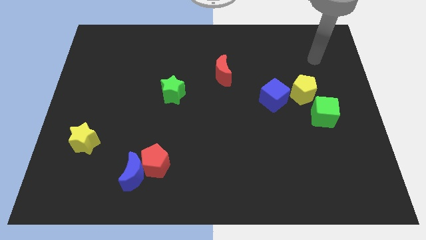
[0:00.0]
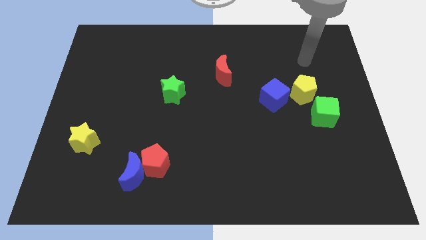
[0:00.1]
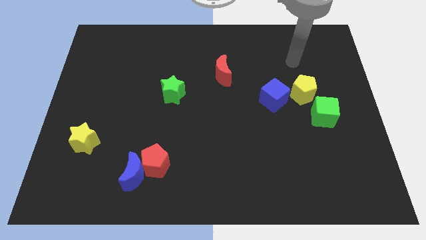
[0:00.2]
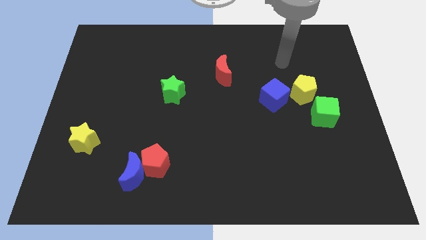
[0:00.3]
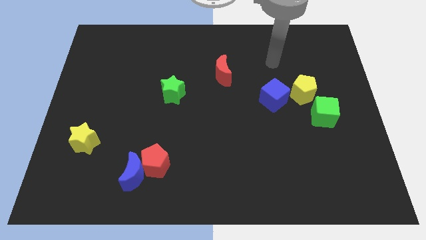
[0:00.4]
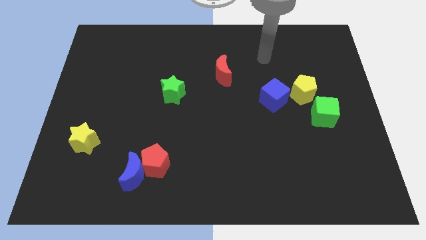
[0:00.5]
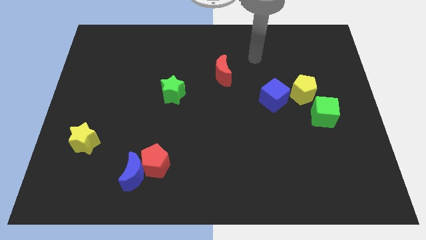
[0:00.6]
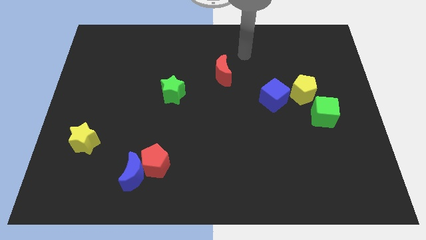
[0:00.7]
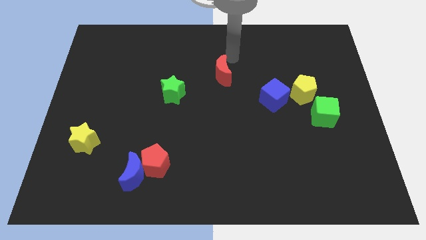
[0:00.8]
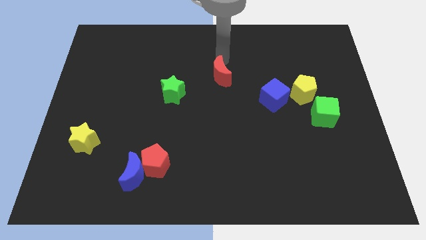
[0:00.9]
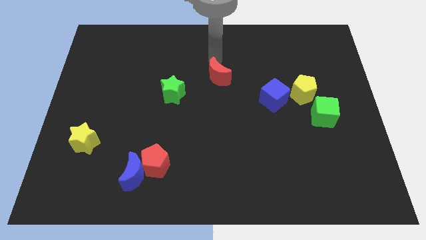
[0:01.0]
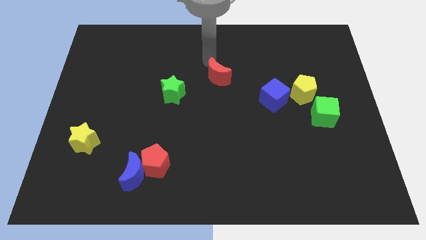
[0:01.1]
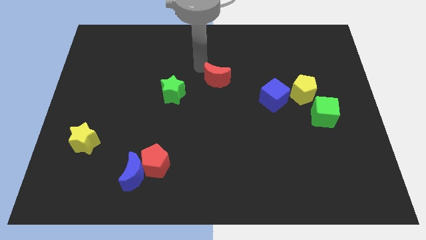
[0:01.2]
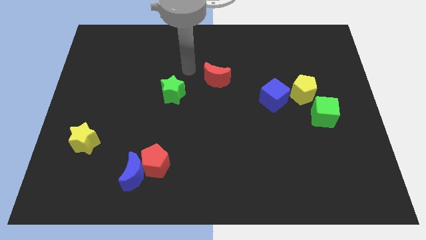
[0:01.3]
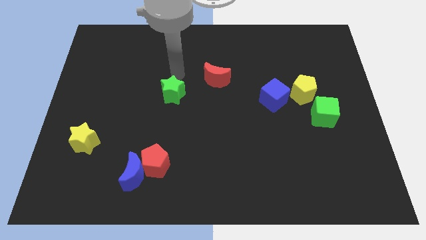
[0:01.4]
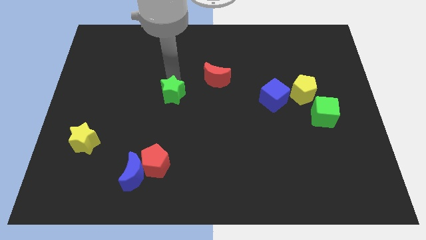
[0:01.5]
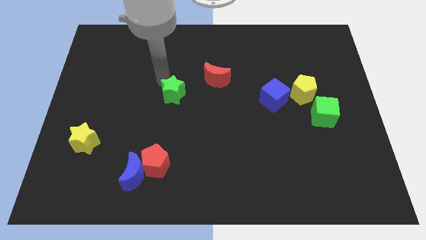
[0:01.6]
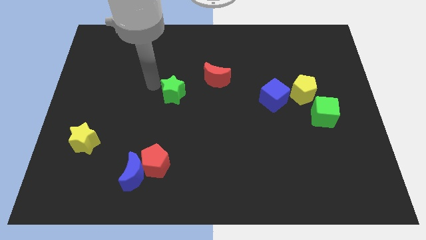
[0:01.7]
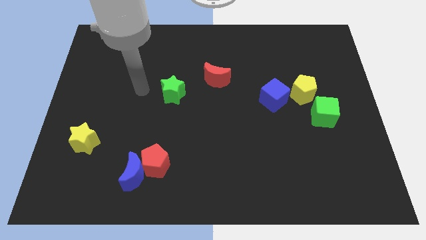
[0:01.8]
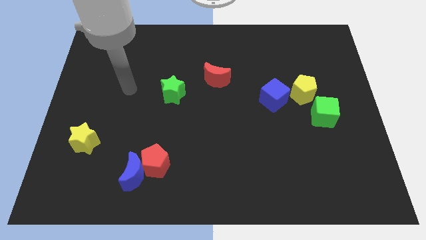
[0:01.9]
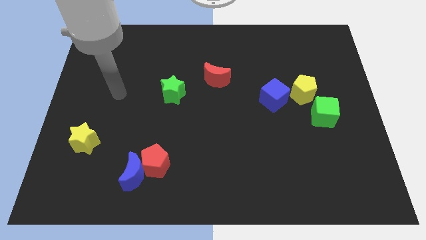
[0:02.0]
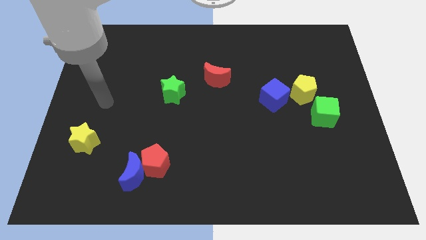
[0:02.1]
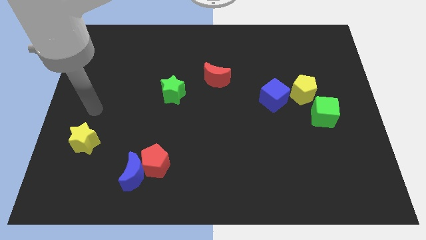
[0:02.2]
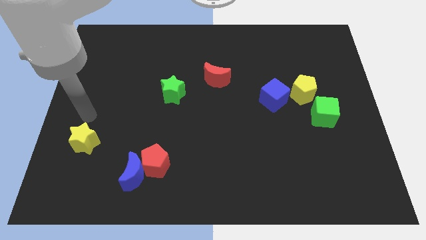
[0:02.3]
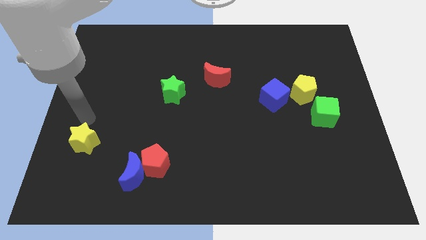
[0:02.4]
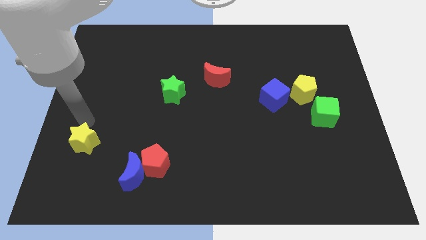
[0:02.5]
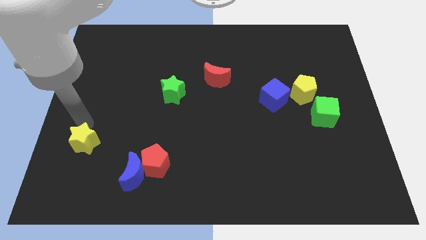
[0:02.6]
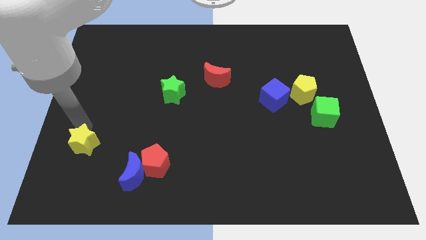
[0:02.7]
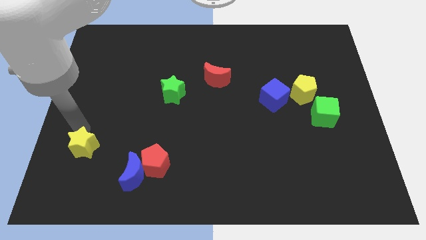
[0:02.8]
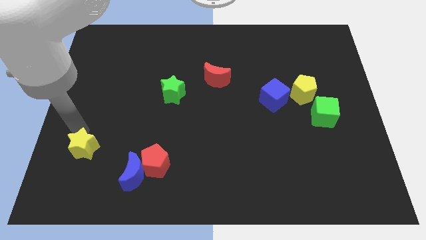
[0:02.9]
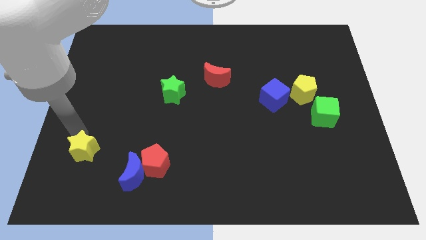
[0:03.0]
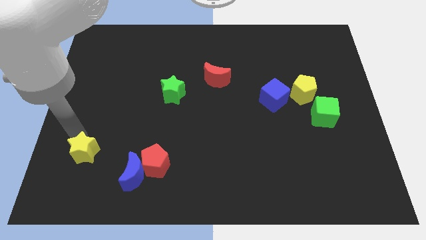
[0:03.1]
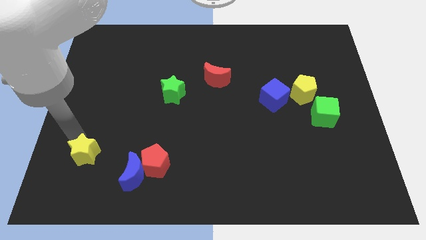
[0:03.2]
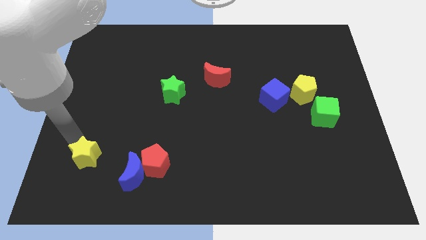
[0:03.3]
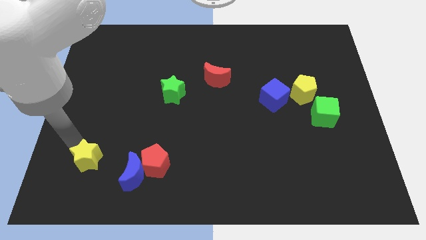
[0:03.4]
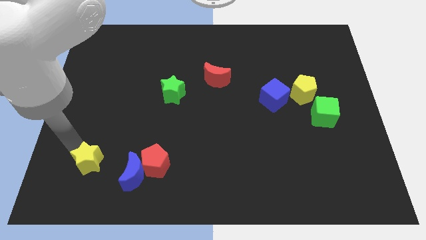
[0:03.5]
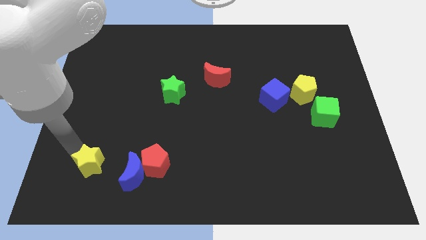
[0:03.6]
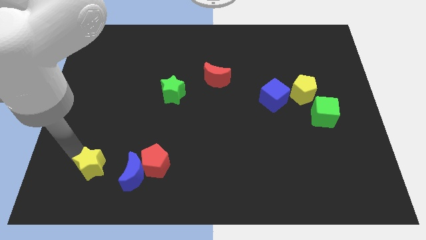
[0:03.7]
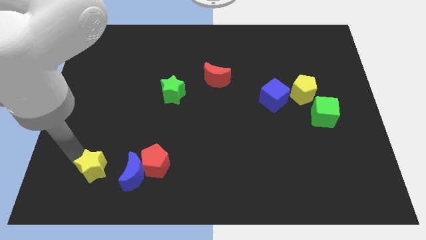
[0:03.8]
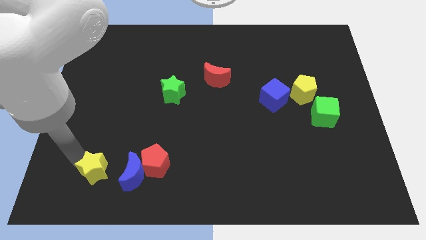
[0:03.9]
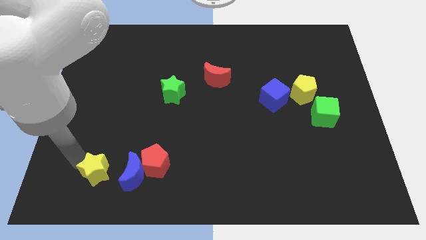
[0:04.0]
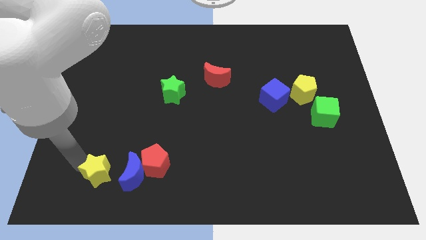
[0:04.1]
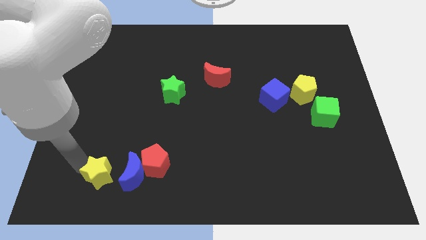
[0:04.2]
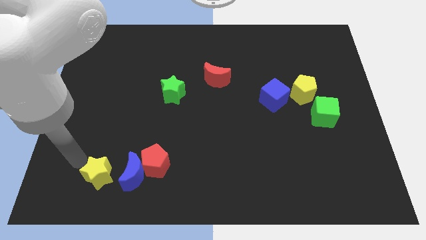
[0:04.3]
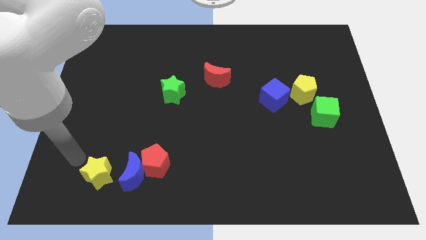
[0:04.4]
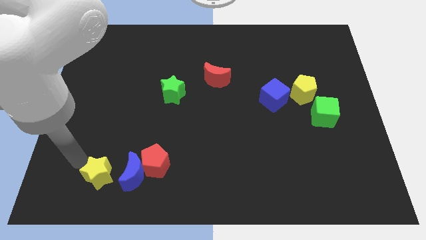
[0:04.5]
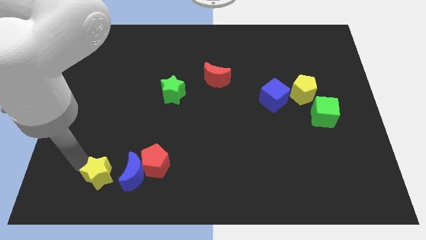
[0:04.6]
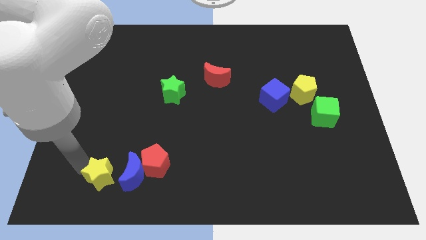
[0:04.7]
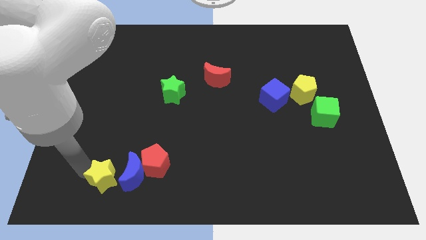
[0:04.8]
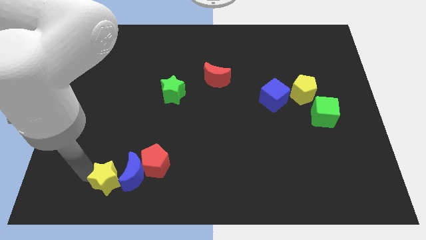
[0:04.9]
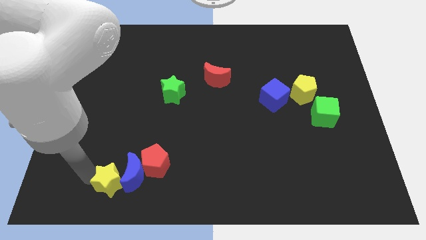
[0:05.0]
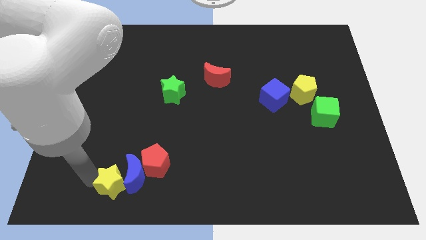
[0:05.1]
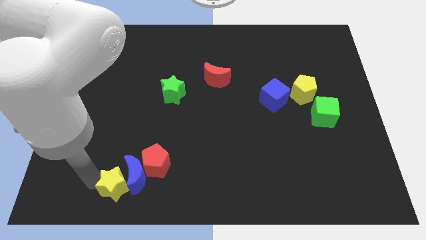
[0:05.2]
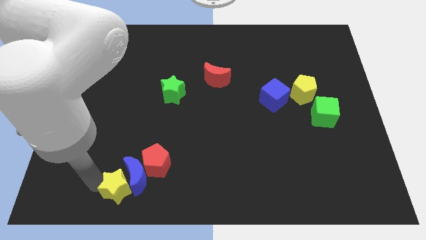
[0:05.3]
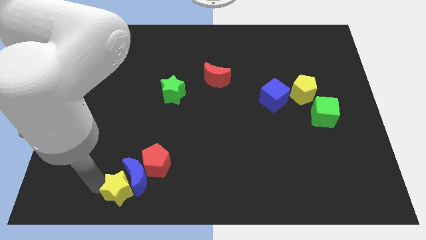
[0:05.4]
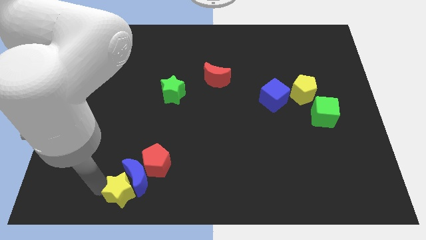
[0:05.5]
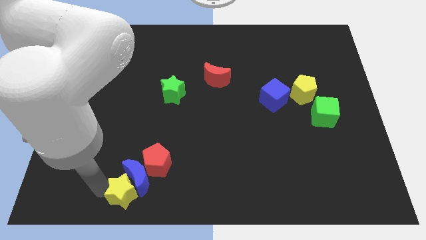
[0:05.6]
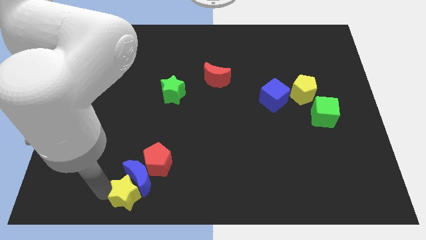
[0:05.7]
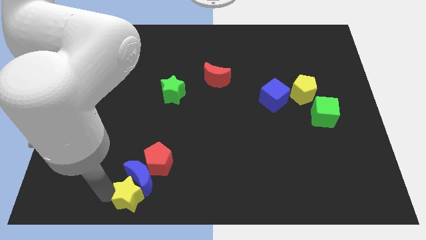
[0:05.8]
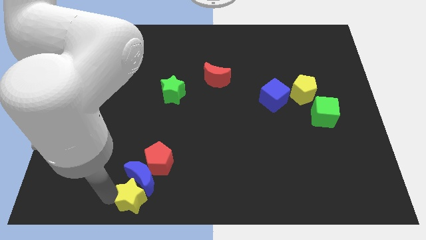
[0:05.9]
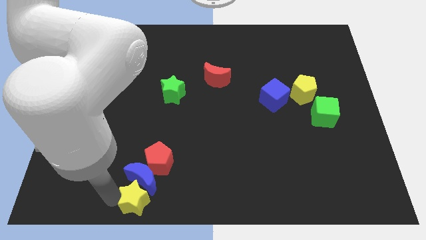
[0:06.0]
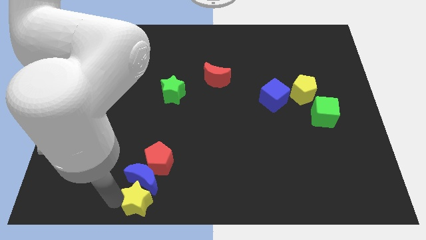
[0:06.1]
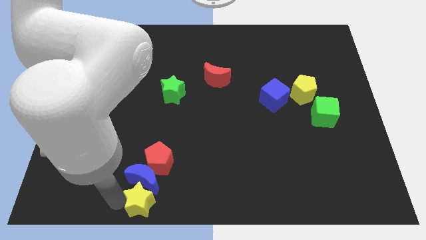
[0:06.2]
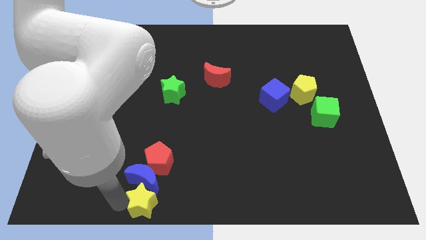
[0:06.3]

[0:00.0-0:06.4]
move the yellow star to the bottom

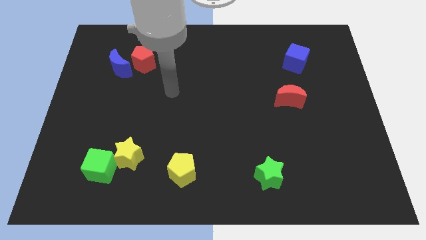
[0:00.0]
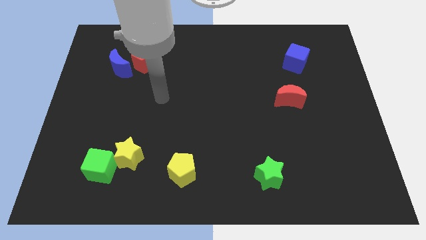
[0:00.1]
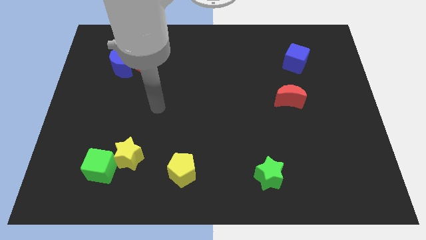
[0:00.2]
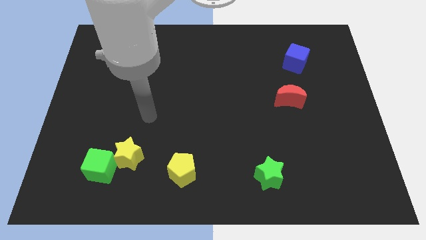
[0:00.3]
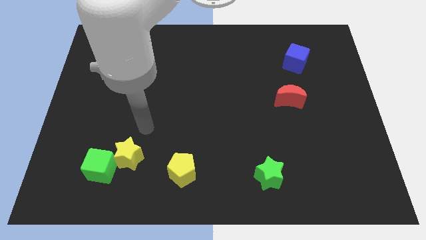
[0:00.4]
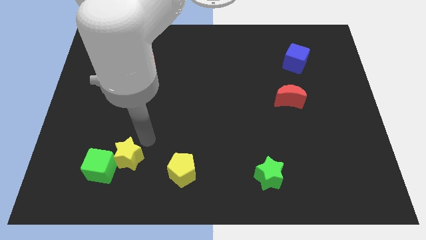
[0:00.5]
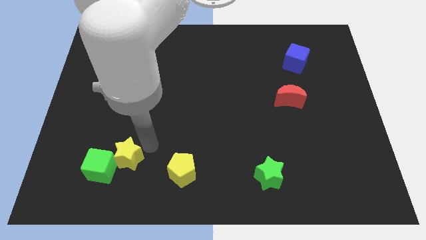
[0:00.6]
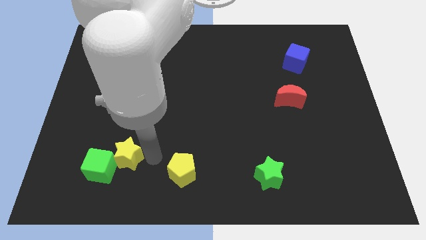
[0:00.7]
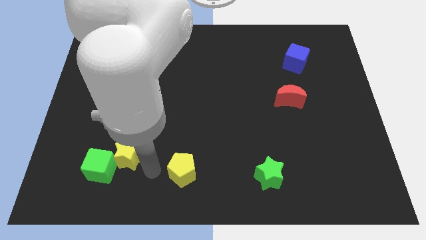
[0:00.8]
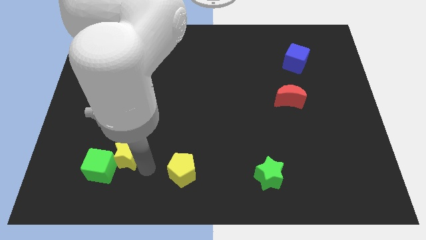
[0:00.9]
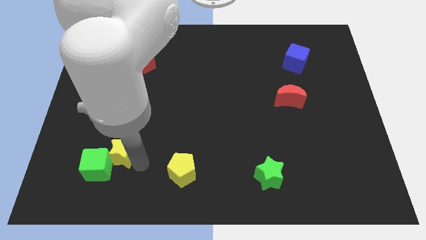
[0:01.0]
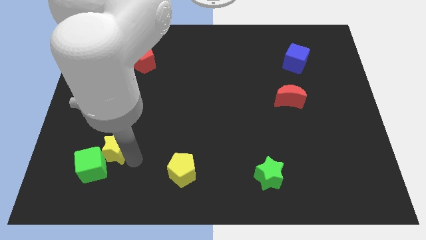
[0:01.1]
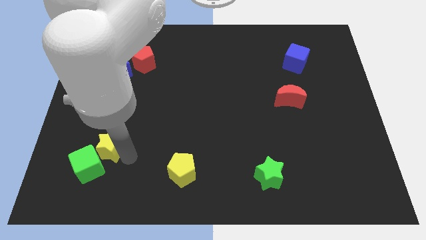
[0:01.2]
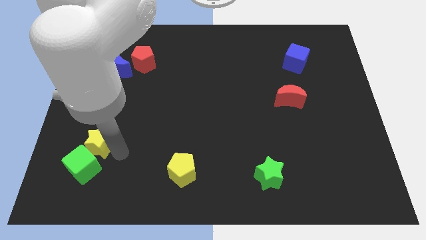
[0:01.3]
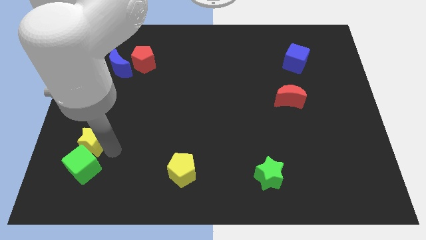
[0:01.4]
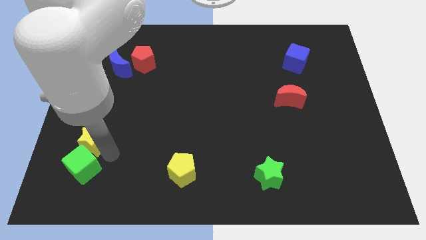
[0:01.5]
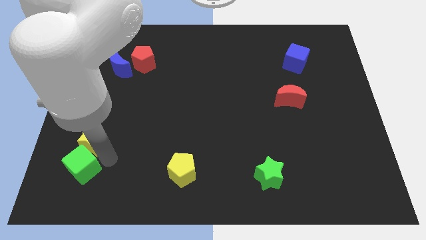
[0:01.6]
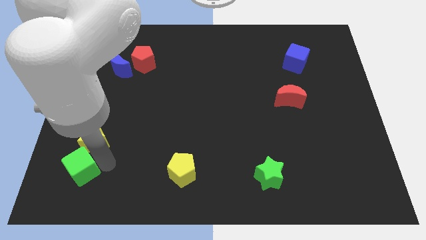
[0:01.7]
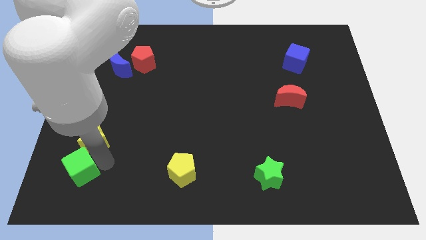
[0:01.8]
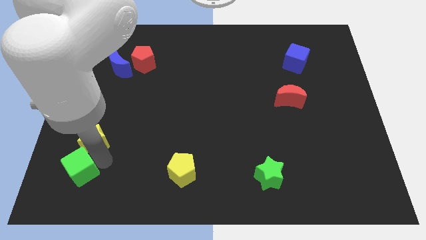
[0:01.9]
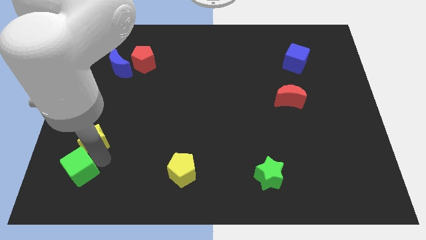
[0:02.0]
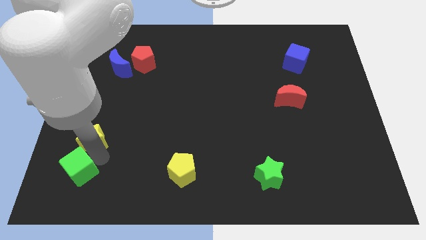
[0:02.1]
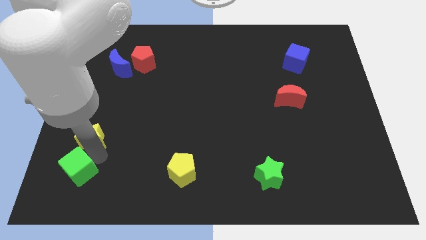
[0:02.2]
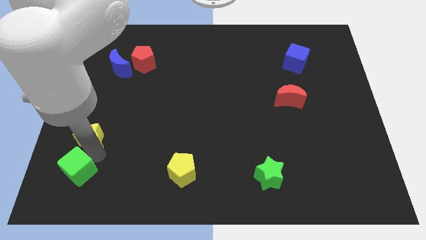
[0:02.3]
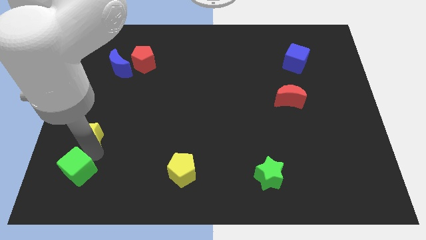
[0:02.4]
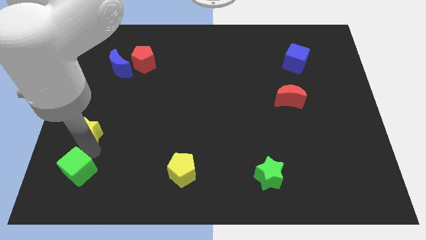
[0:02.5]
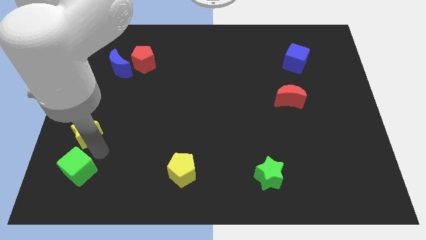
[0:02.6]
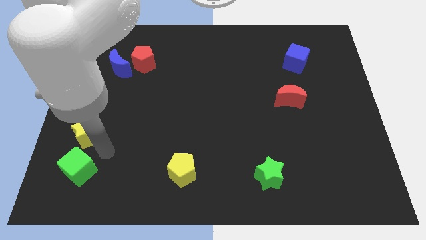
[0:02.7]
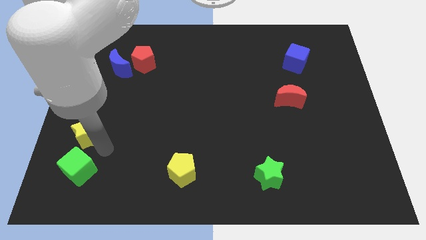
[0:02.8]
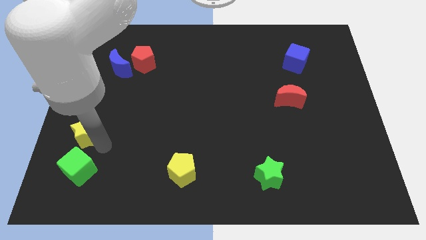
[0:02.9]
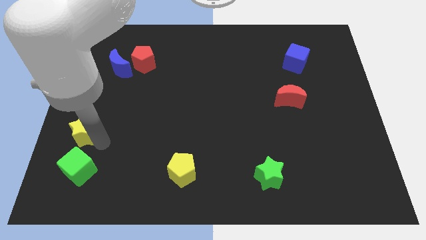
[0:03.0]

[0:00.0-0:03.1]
push the yellow star to the center left
